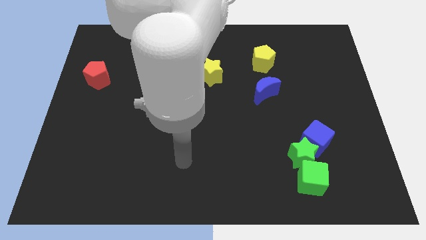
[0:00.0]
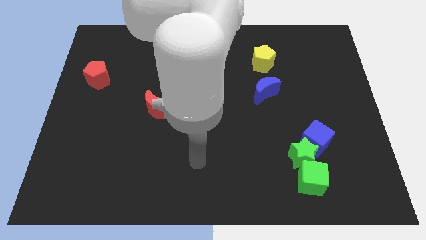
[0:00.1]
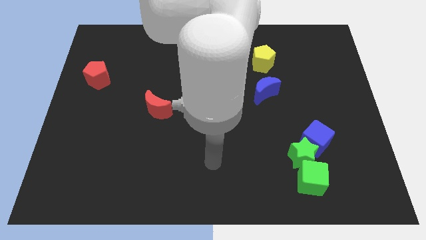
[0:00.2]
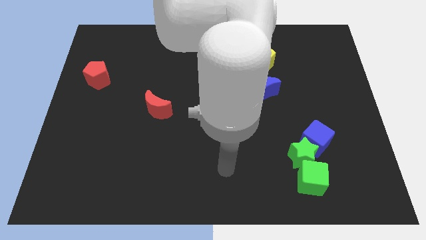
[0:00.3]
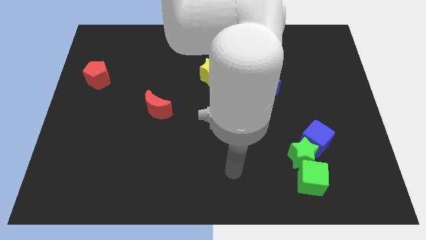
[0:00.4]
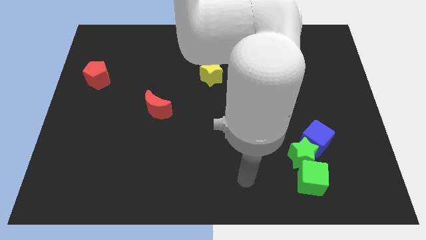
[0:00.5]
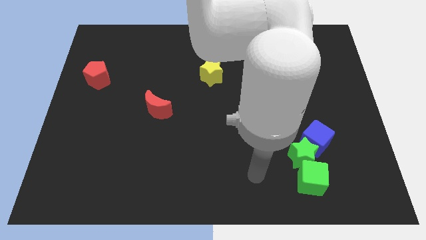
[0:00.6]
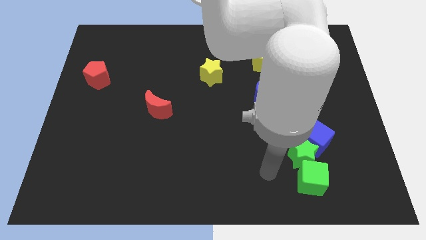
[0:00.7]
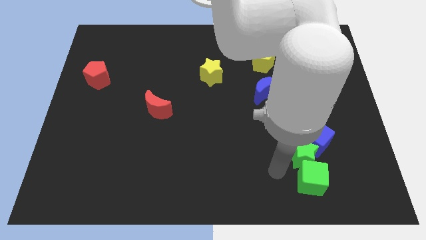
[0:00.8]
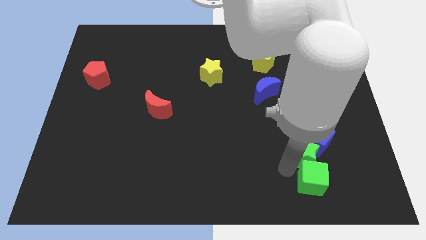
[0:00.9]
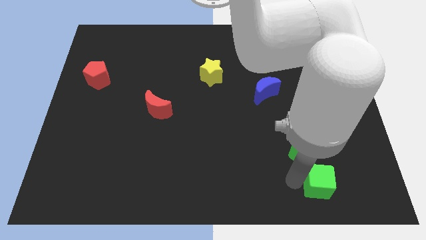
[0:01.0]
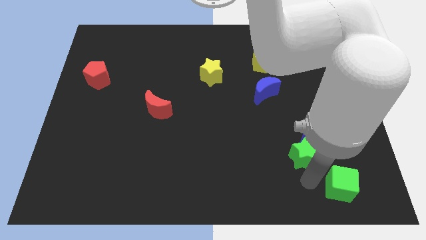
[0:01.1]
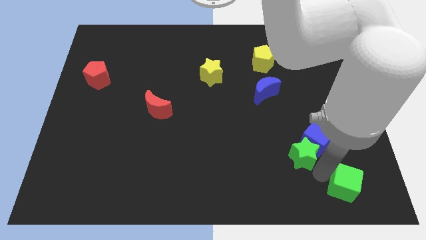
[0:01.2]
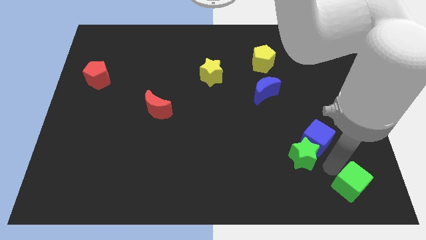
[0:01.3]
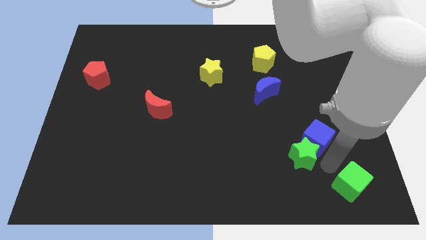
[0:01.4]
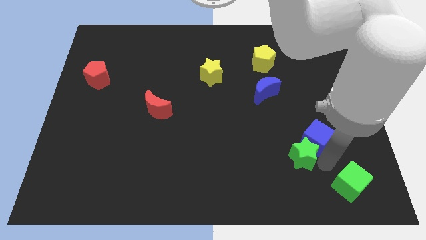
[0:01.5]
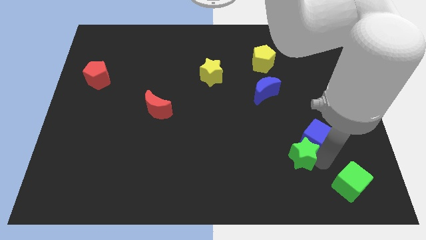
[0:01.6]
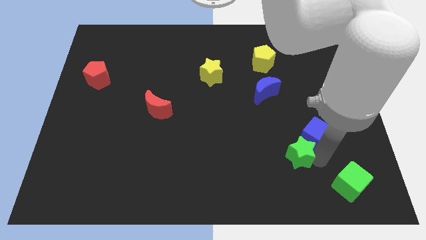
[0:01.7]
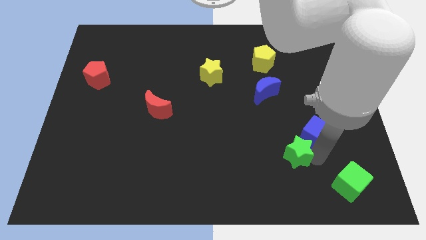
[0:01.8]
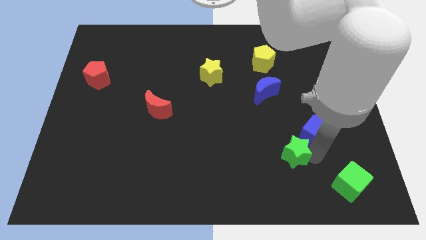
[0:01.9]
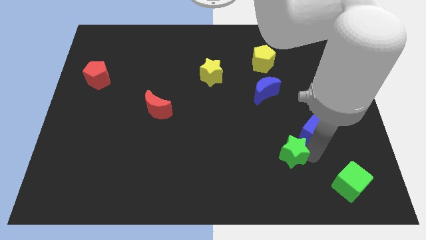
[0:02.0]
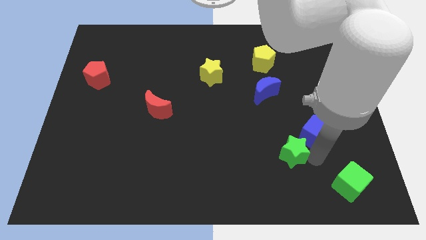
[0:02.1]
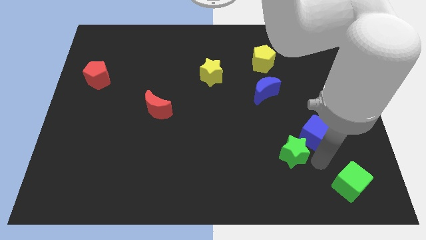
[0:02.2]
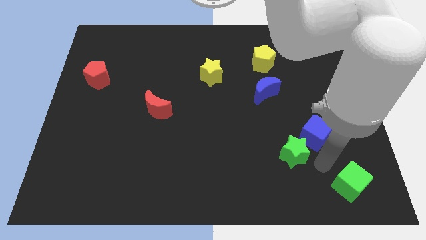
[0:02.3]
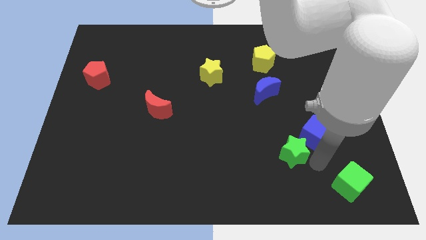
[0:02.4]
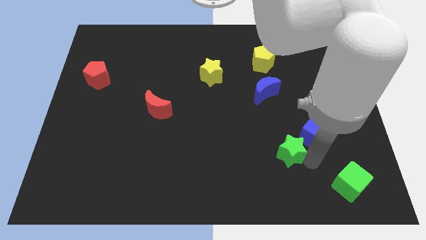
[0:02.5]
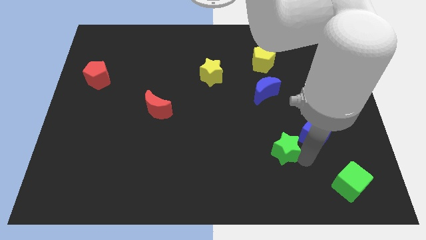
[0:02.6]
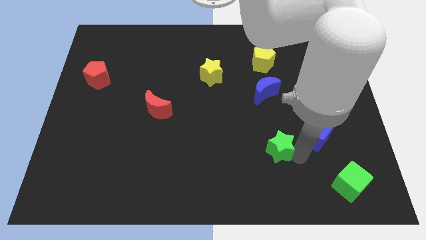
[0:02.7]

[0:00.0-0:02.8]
pull the green star apart from the green cube and blue cube

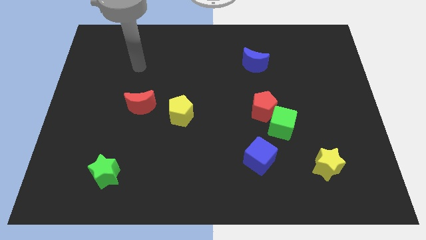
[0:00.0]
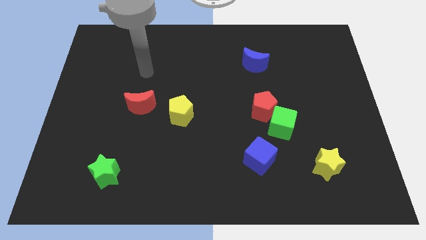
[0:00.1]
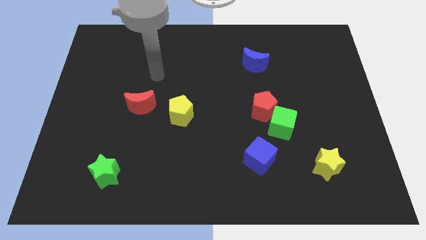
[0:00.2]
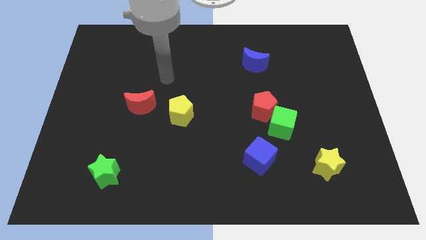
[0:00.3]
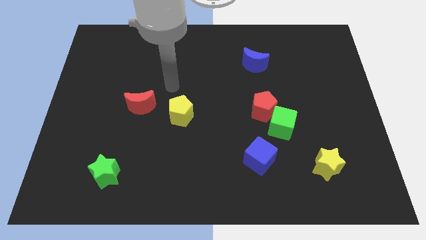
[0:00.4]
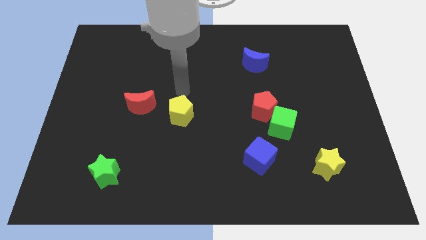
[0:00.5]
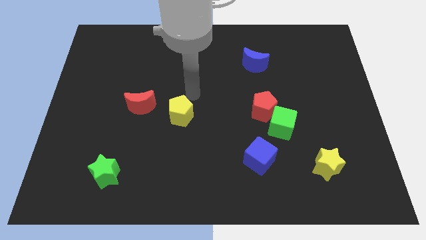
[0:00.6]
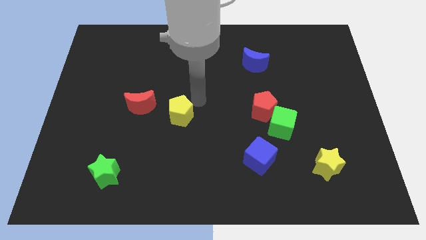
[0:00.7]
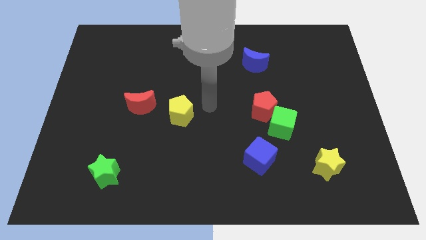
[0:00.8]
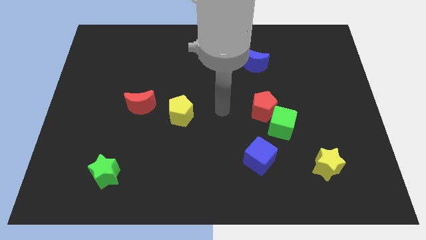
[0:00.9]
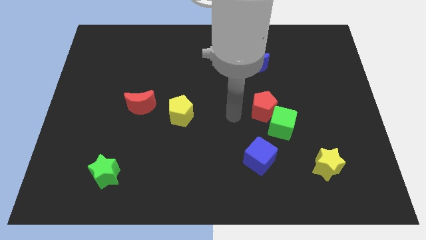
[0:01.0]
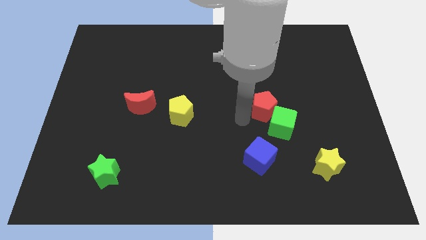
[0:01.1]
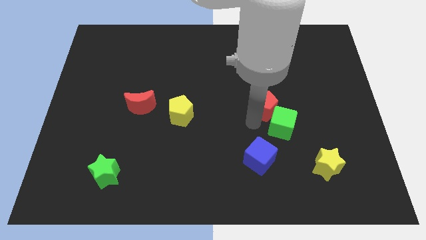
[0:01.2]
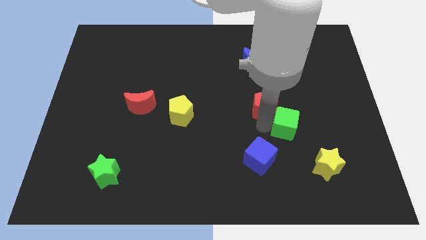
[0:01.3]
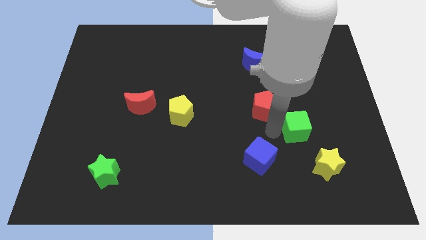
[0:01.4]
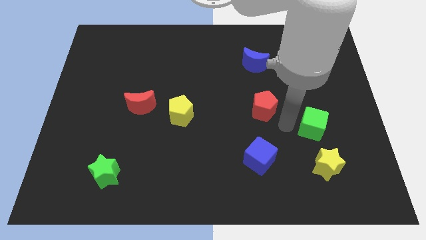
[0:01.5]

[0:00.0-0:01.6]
separate the red pentagon from the green cube

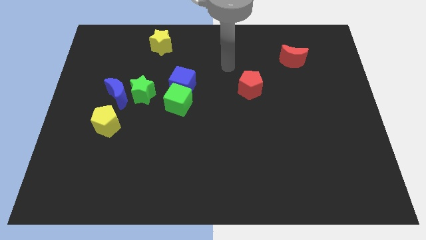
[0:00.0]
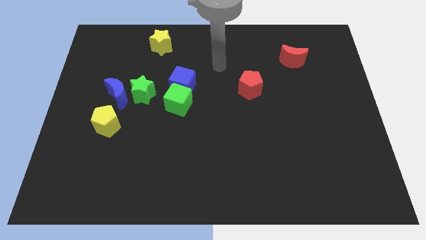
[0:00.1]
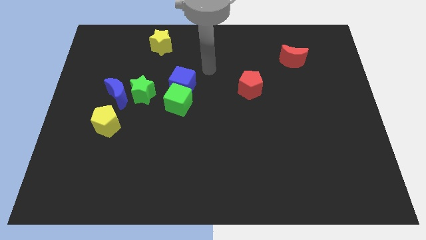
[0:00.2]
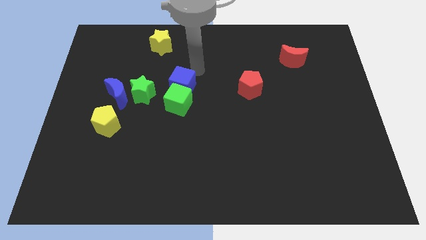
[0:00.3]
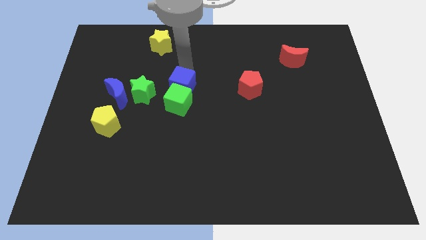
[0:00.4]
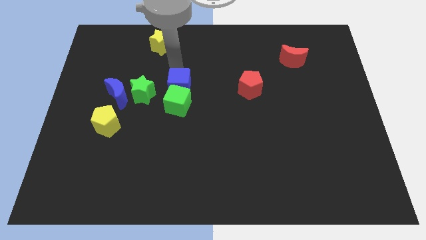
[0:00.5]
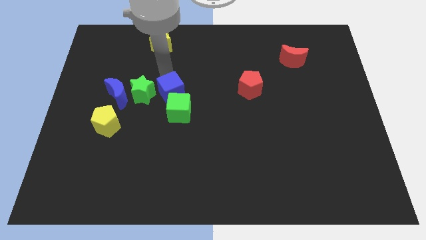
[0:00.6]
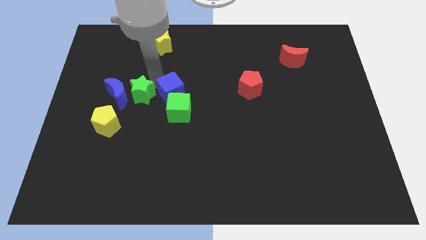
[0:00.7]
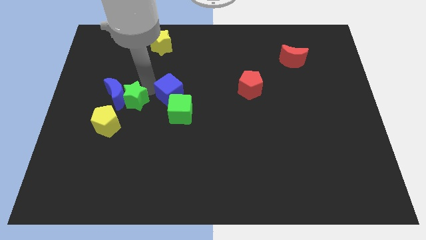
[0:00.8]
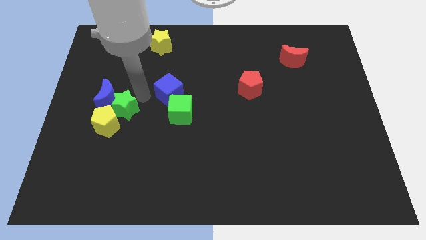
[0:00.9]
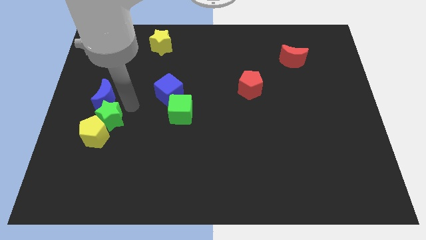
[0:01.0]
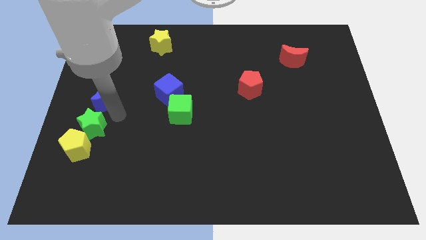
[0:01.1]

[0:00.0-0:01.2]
move the blue moon away from the green star and yellow pentagon

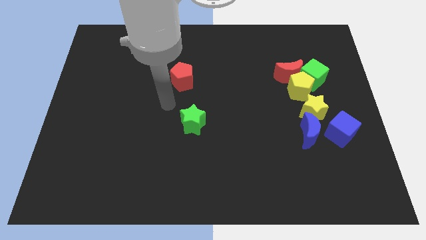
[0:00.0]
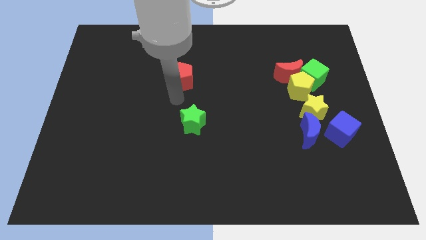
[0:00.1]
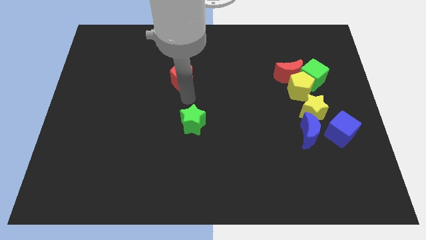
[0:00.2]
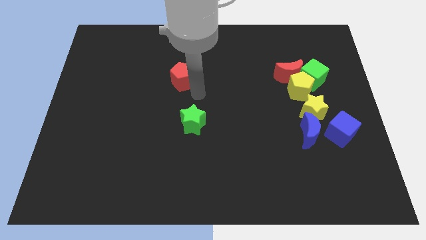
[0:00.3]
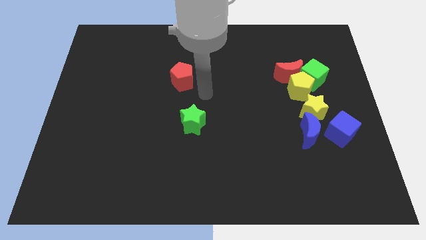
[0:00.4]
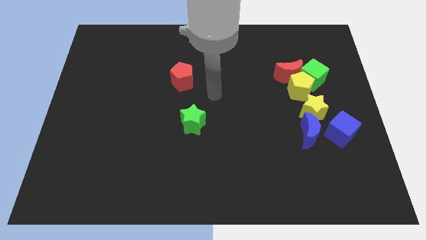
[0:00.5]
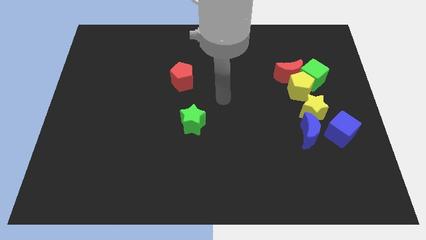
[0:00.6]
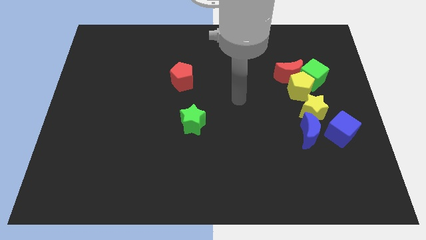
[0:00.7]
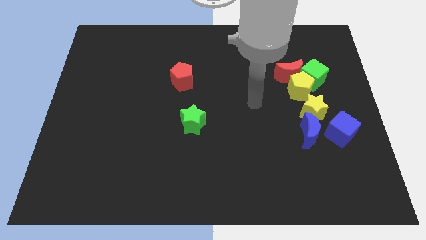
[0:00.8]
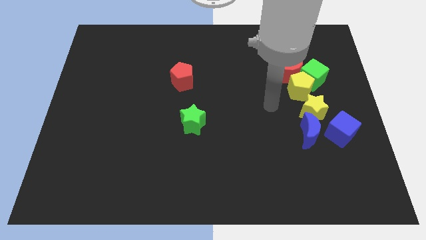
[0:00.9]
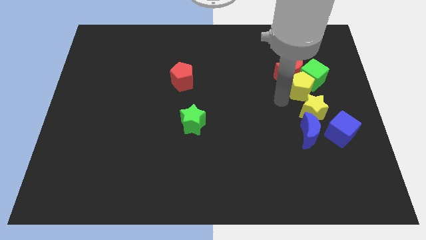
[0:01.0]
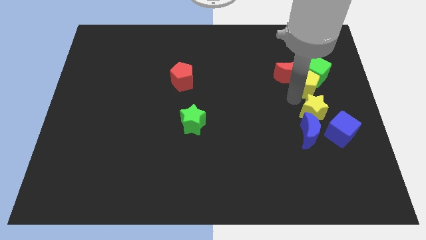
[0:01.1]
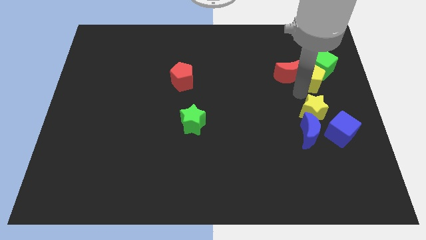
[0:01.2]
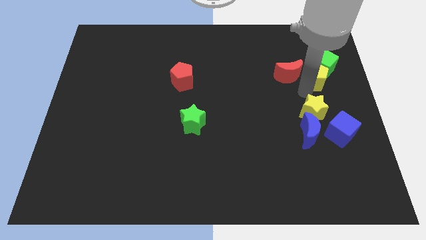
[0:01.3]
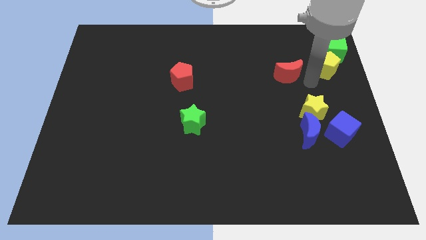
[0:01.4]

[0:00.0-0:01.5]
move the red moon away from the yellow pentagon and green cube

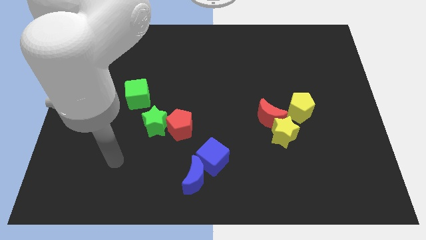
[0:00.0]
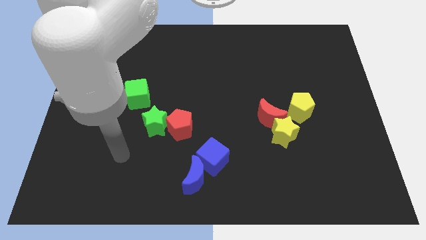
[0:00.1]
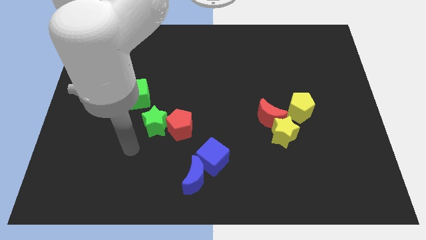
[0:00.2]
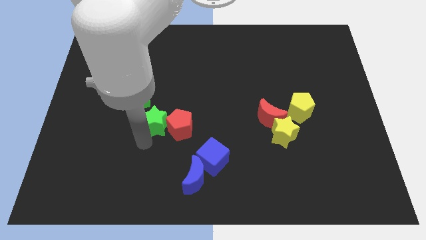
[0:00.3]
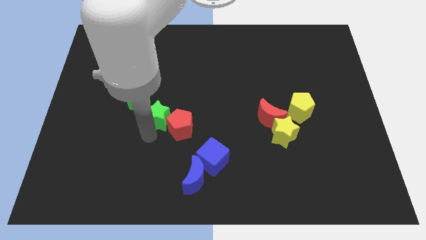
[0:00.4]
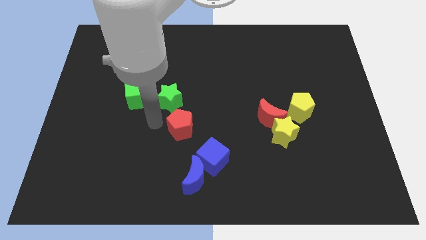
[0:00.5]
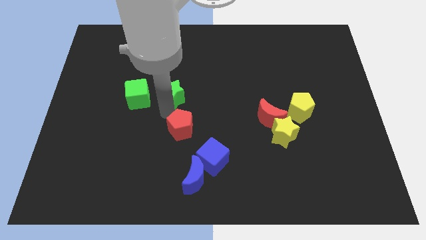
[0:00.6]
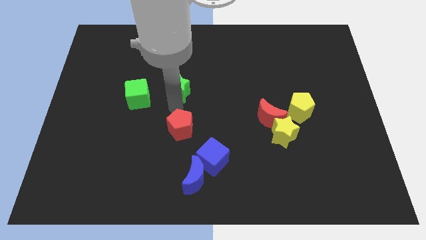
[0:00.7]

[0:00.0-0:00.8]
move the red pentagon away from the green star

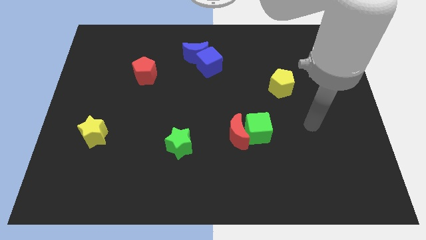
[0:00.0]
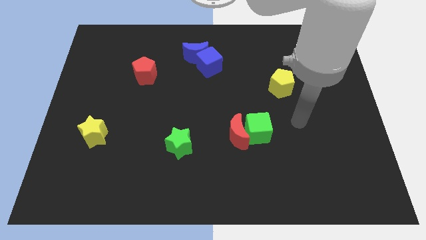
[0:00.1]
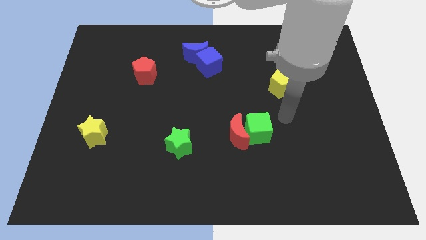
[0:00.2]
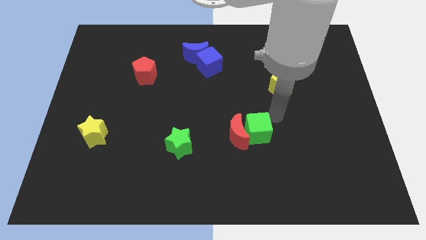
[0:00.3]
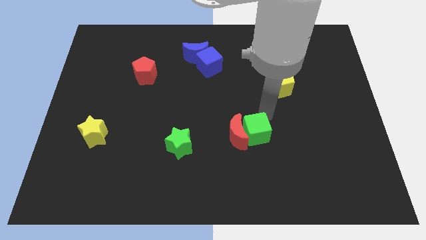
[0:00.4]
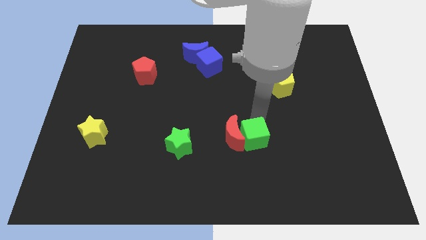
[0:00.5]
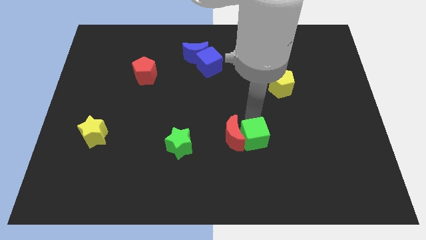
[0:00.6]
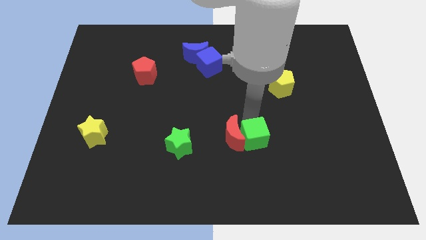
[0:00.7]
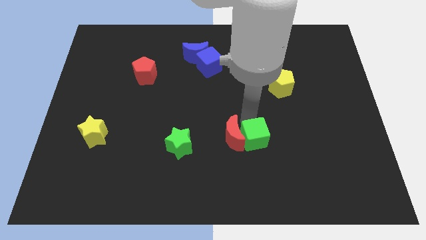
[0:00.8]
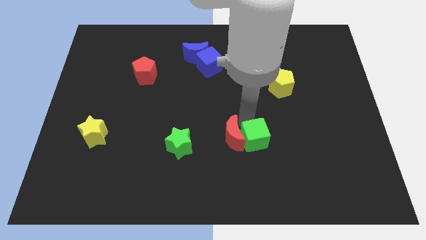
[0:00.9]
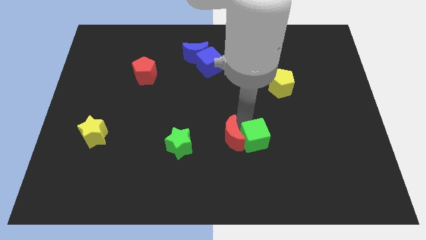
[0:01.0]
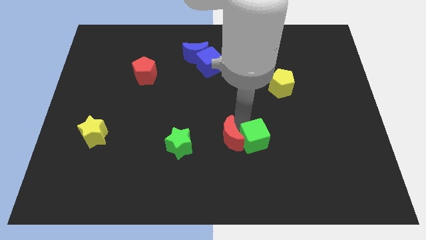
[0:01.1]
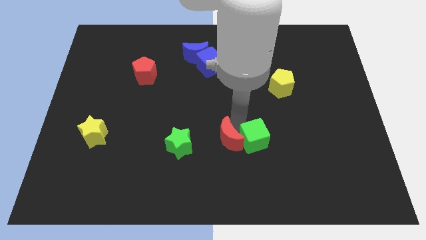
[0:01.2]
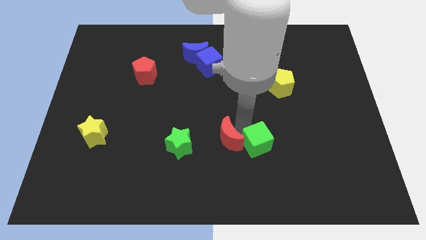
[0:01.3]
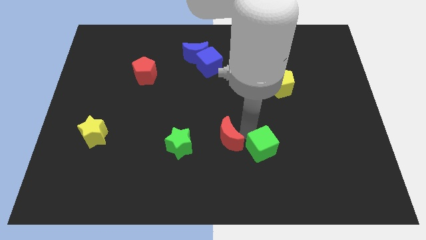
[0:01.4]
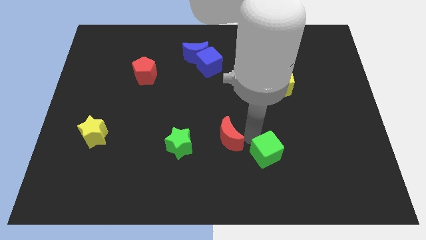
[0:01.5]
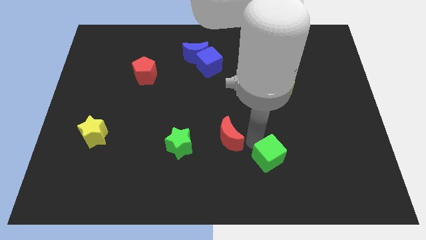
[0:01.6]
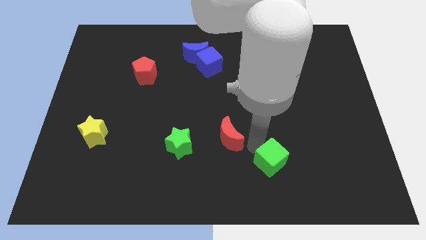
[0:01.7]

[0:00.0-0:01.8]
move the red moon away from the green cube
